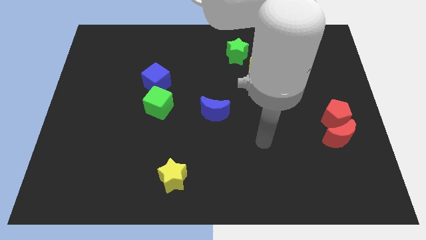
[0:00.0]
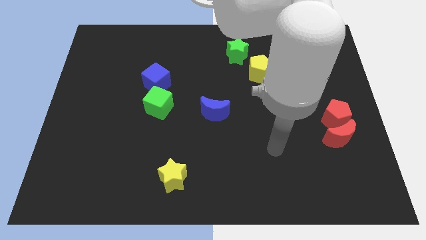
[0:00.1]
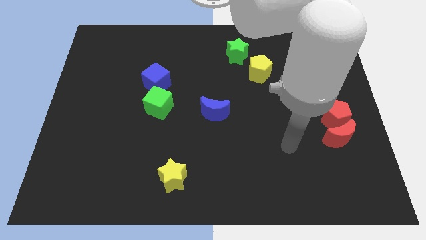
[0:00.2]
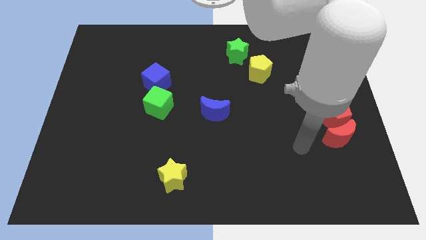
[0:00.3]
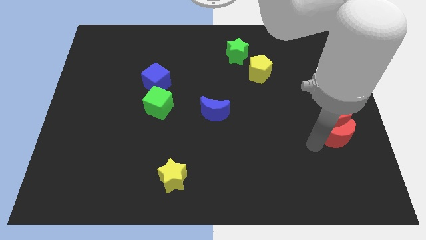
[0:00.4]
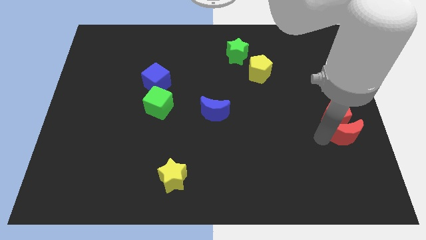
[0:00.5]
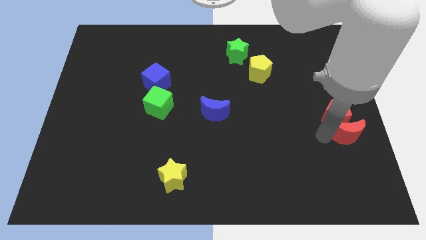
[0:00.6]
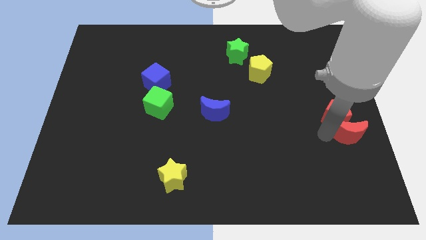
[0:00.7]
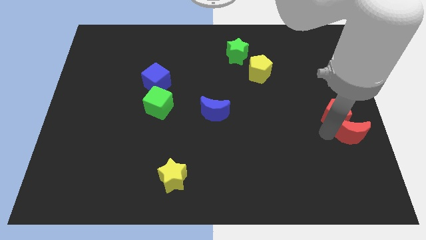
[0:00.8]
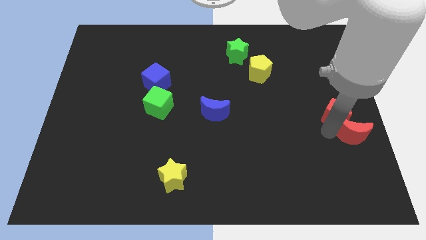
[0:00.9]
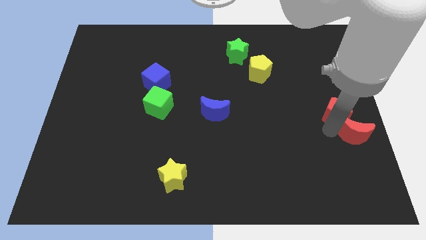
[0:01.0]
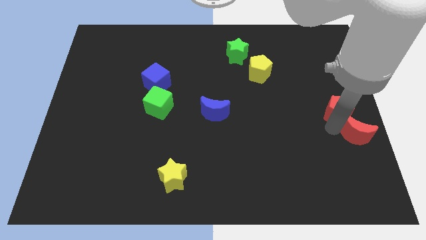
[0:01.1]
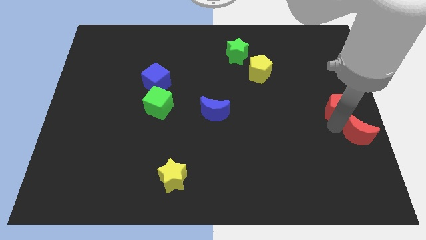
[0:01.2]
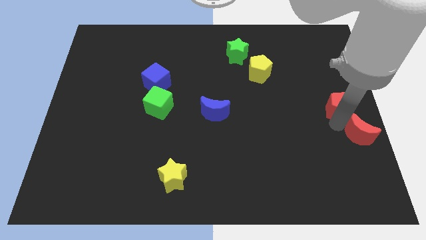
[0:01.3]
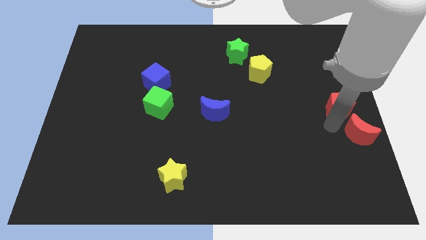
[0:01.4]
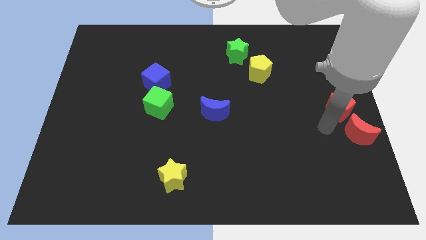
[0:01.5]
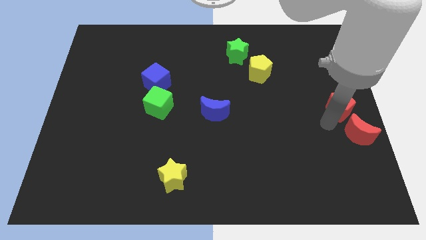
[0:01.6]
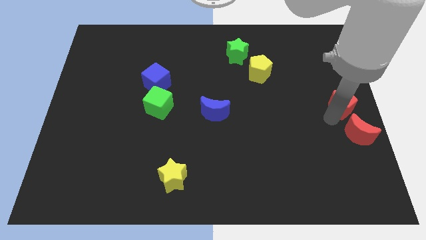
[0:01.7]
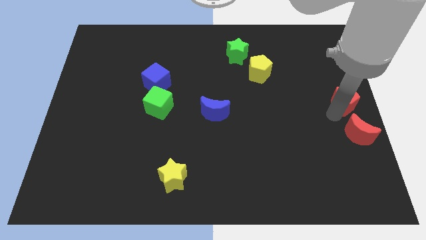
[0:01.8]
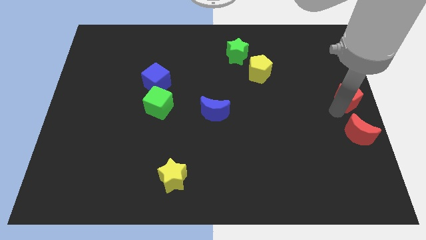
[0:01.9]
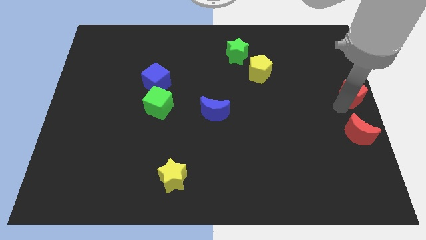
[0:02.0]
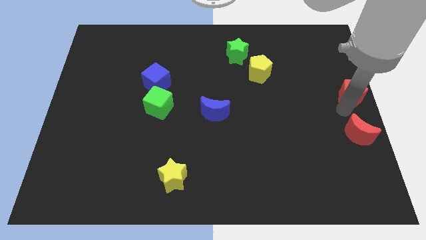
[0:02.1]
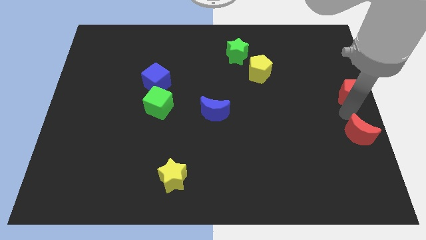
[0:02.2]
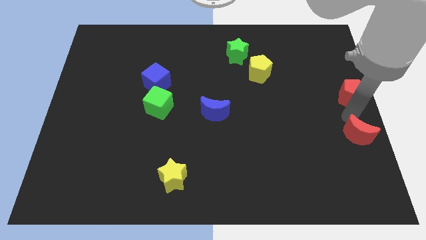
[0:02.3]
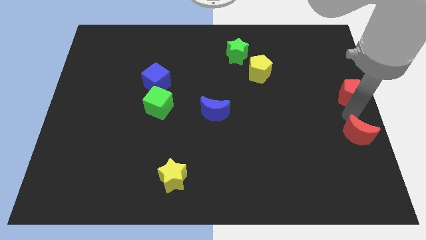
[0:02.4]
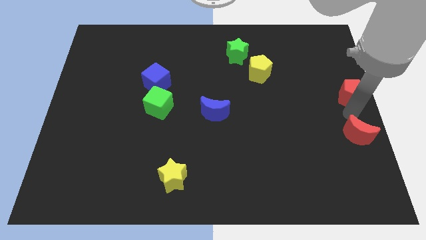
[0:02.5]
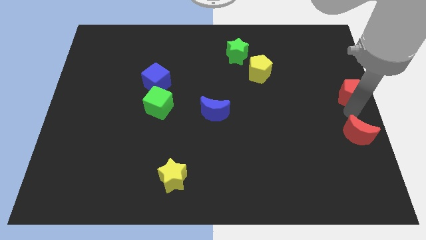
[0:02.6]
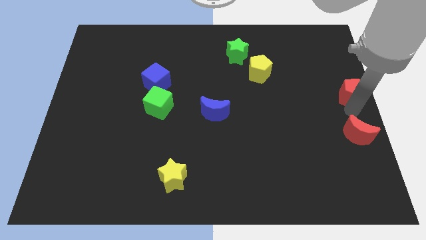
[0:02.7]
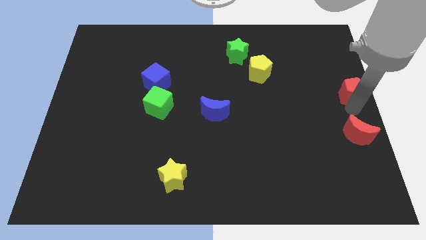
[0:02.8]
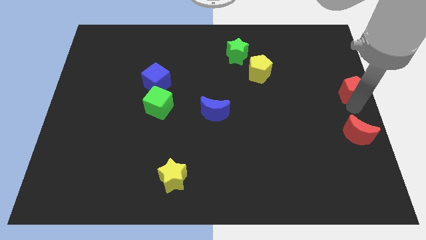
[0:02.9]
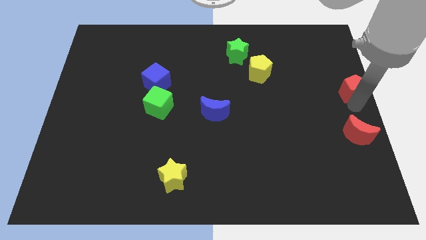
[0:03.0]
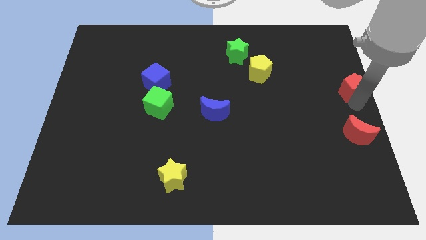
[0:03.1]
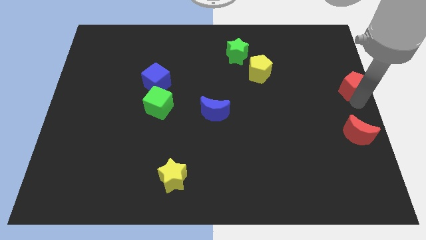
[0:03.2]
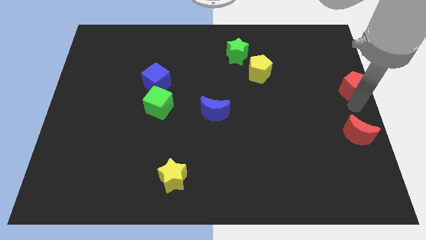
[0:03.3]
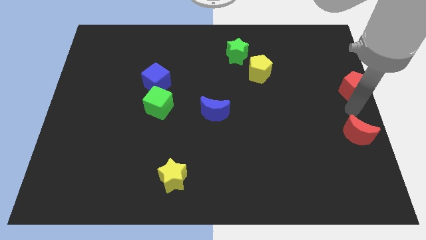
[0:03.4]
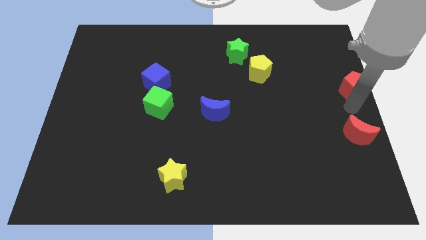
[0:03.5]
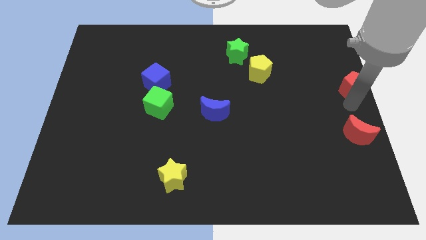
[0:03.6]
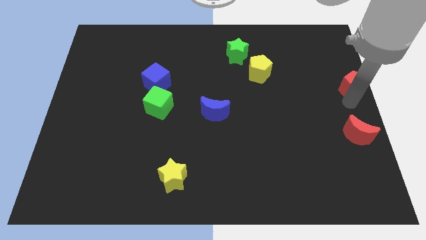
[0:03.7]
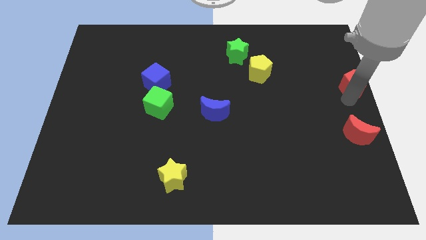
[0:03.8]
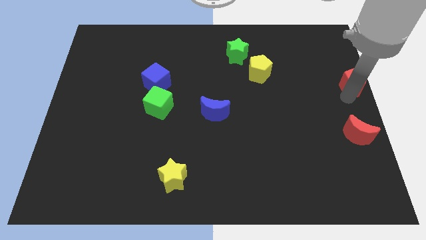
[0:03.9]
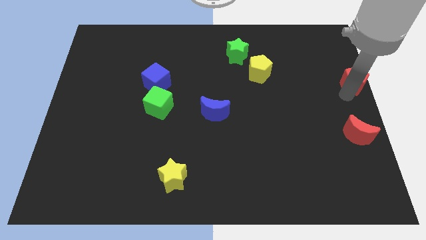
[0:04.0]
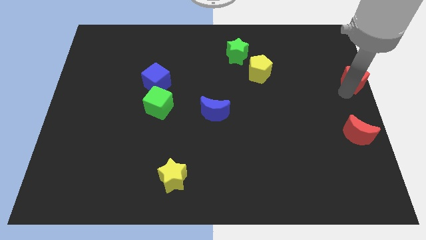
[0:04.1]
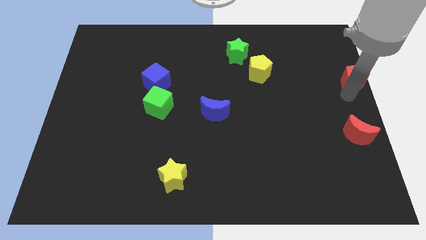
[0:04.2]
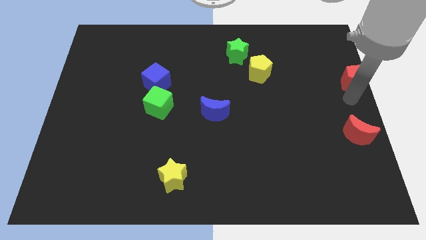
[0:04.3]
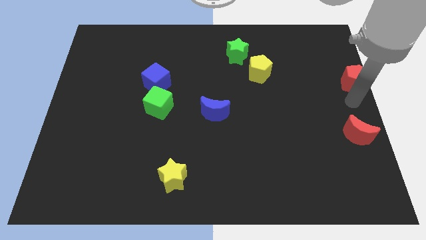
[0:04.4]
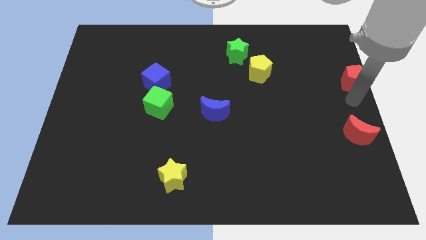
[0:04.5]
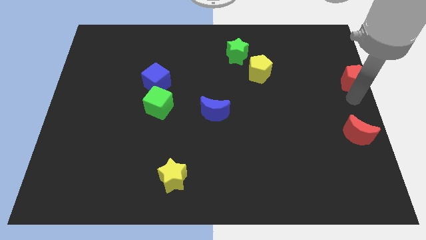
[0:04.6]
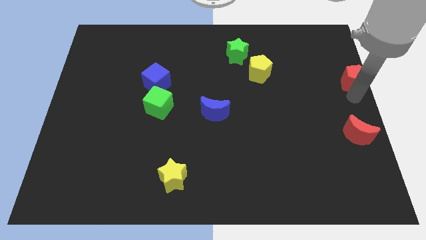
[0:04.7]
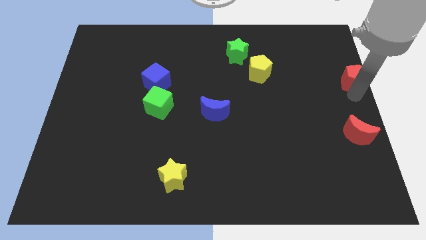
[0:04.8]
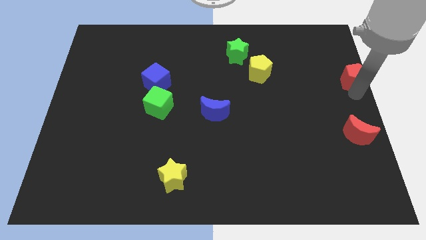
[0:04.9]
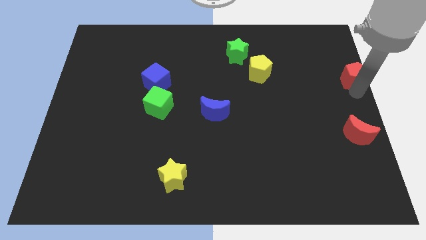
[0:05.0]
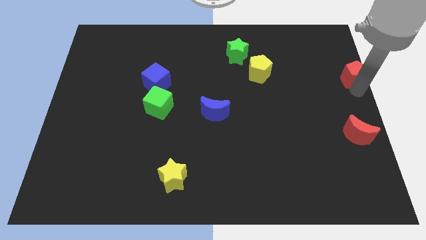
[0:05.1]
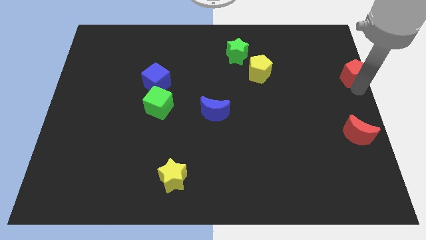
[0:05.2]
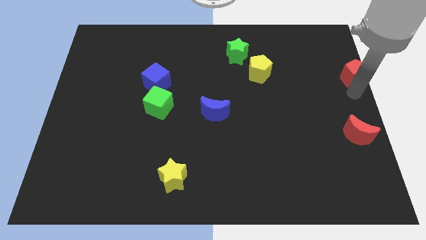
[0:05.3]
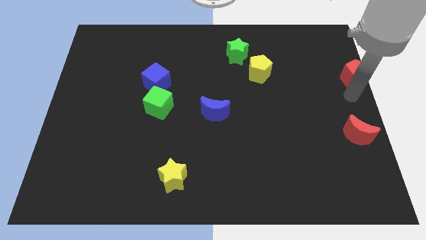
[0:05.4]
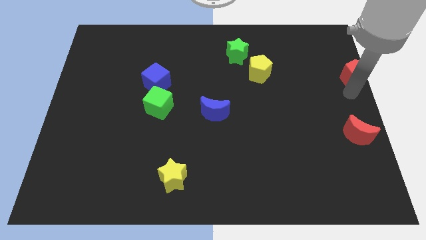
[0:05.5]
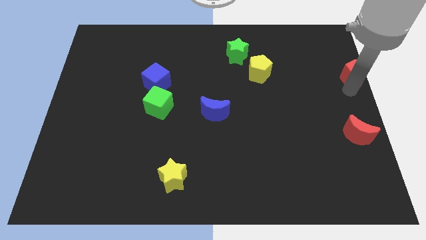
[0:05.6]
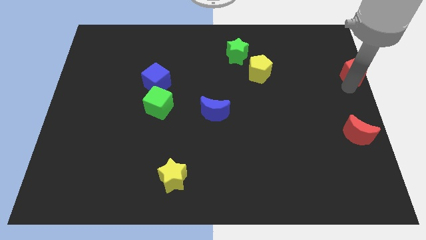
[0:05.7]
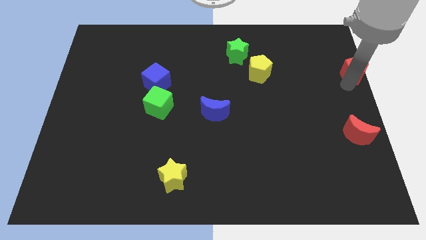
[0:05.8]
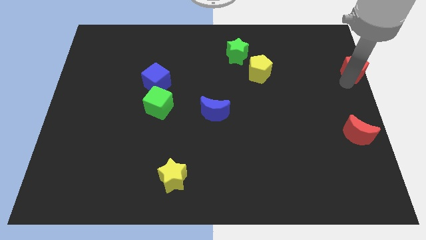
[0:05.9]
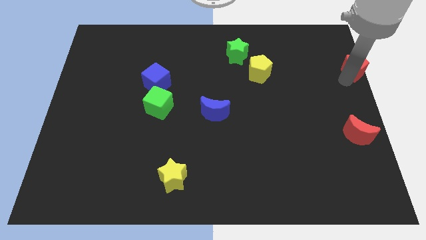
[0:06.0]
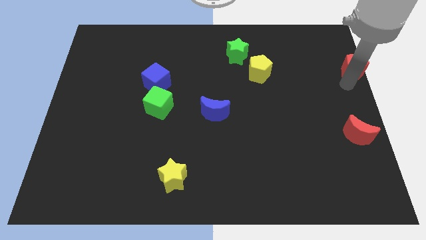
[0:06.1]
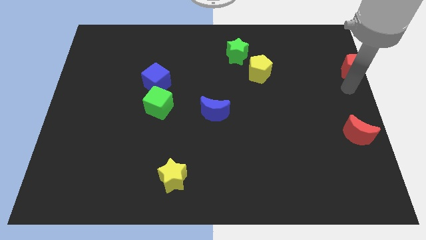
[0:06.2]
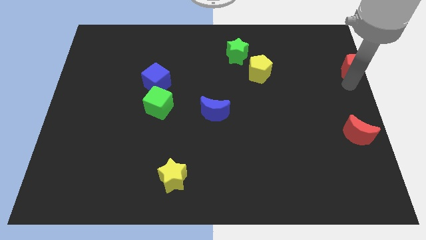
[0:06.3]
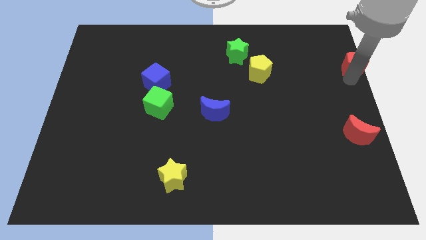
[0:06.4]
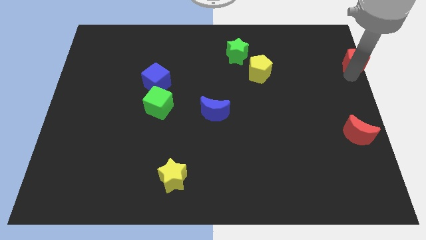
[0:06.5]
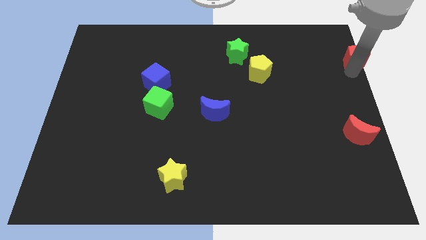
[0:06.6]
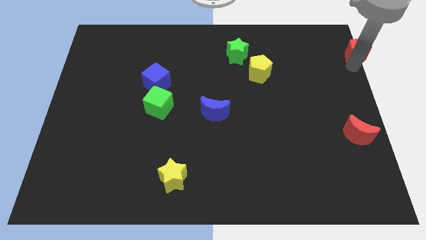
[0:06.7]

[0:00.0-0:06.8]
slide the red pentagon to the top right corner
